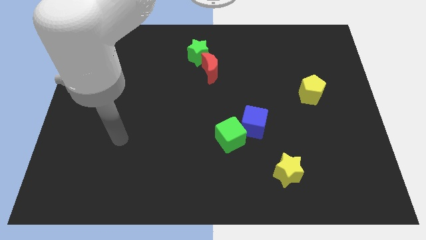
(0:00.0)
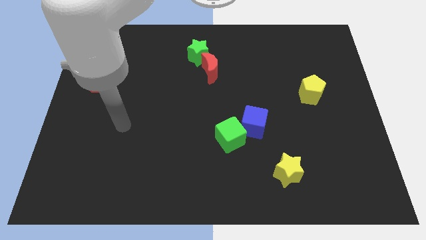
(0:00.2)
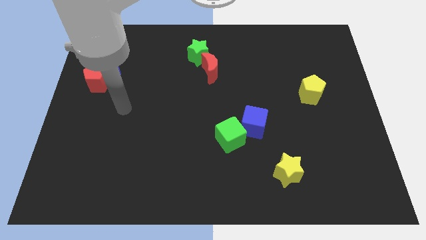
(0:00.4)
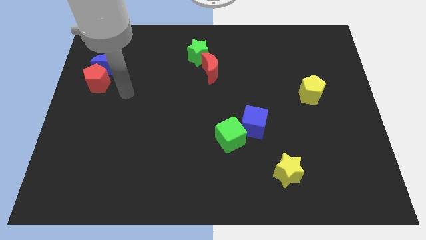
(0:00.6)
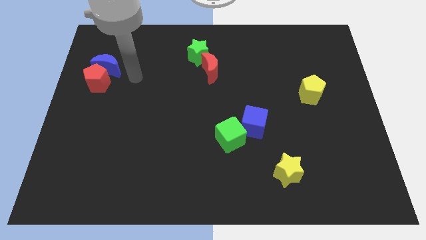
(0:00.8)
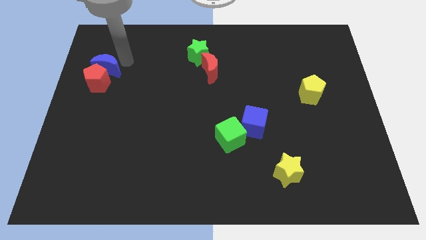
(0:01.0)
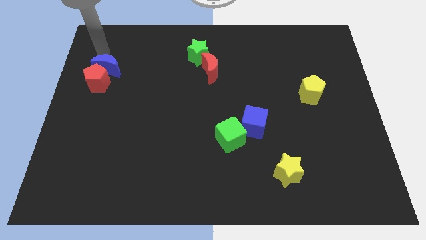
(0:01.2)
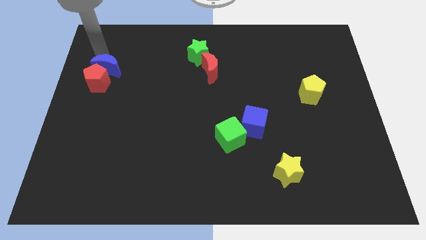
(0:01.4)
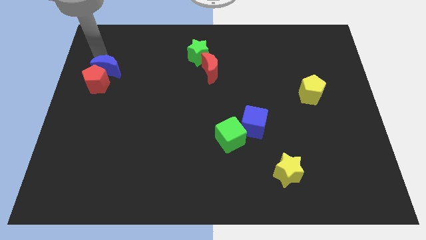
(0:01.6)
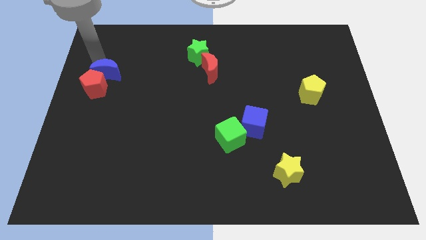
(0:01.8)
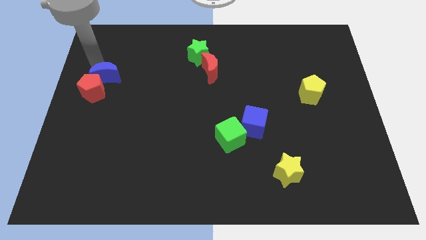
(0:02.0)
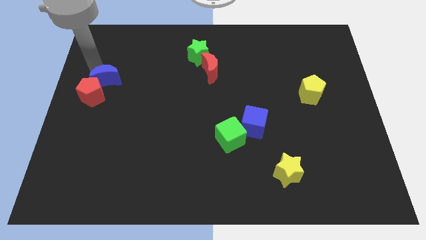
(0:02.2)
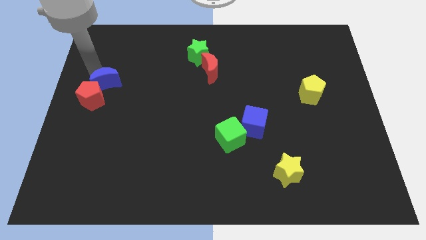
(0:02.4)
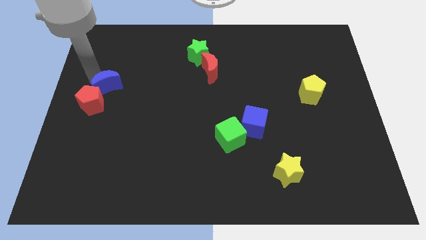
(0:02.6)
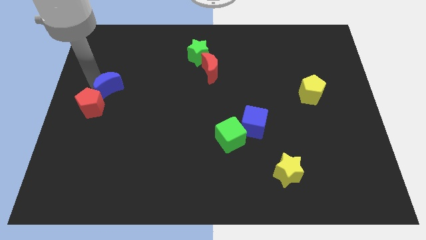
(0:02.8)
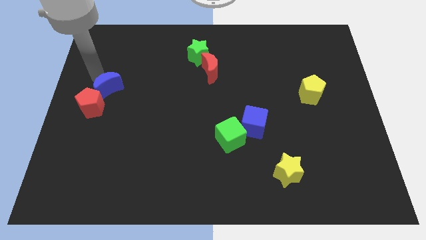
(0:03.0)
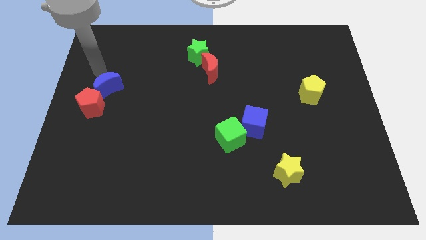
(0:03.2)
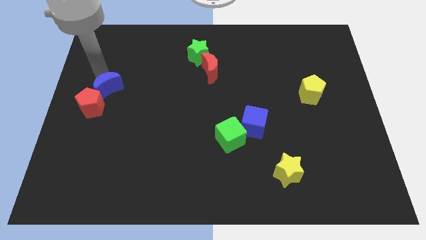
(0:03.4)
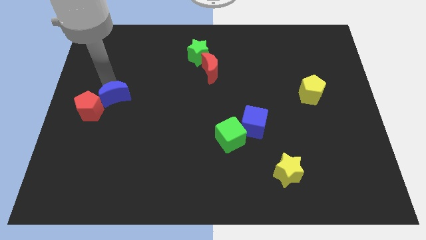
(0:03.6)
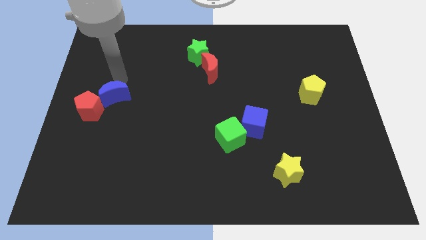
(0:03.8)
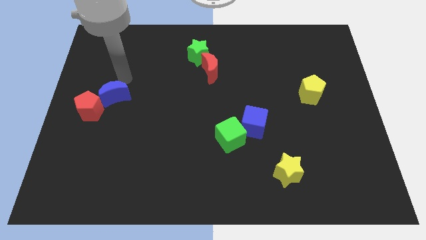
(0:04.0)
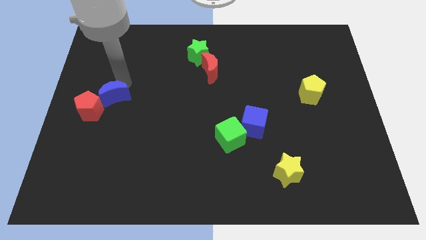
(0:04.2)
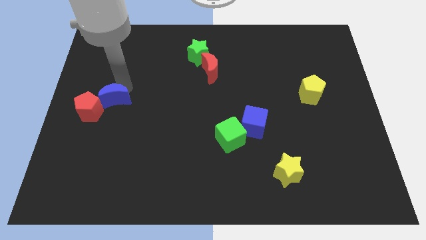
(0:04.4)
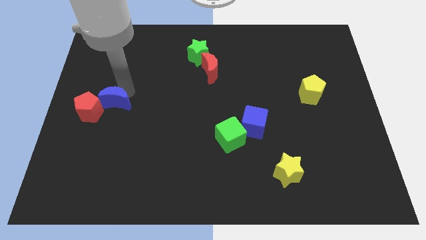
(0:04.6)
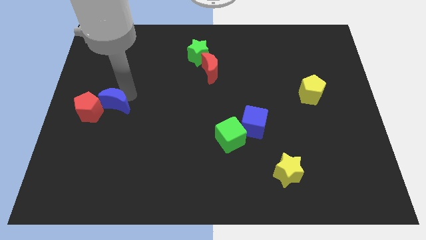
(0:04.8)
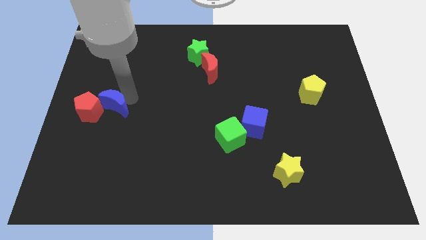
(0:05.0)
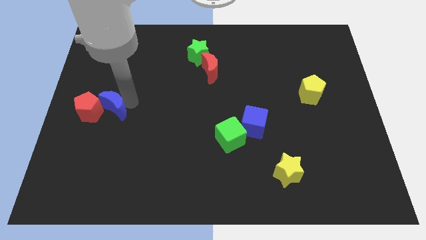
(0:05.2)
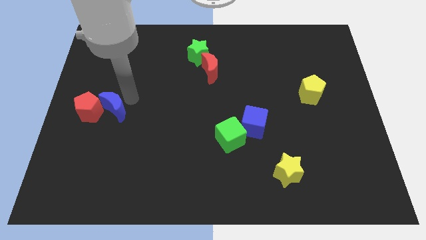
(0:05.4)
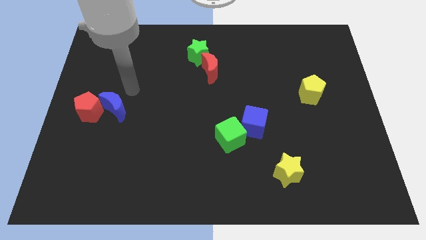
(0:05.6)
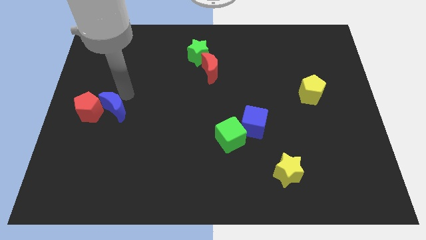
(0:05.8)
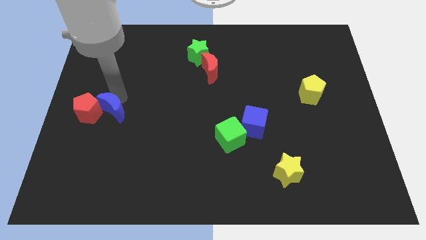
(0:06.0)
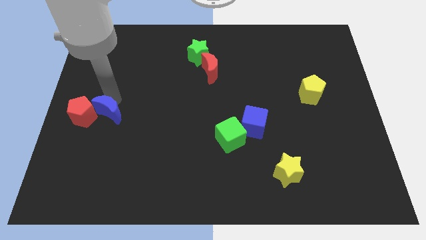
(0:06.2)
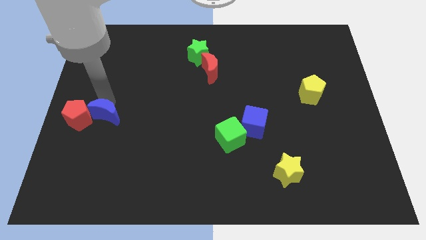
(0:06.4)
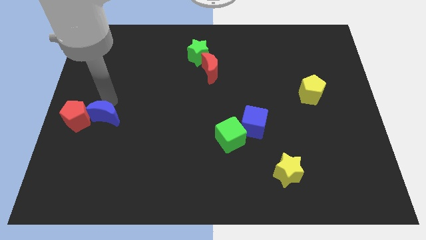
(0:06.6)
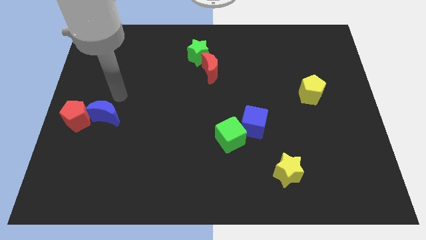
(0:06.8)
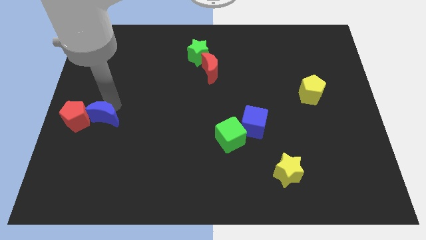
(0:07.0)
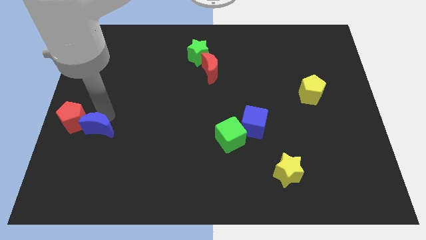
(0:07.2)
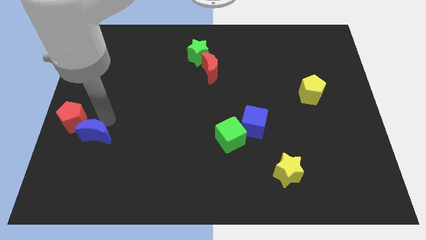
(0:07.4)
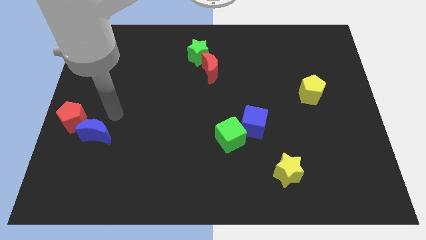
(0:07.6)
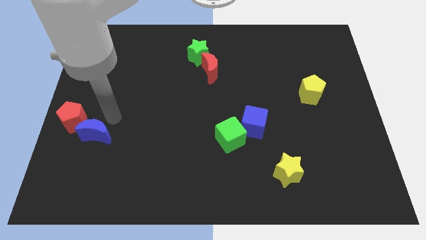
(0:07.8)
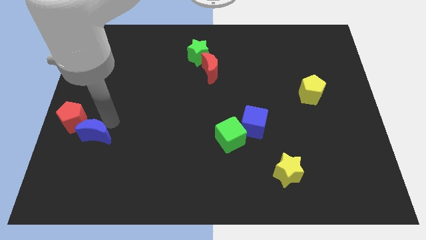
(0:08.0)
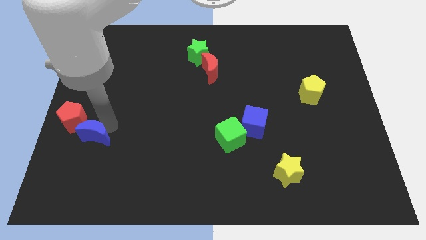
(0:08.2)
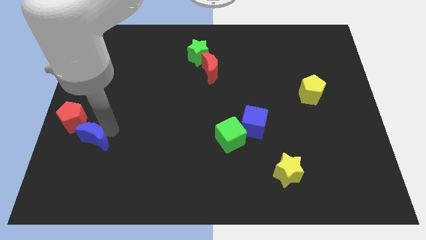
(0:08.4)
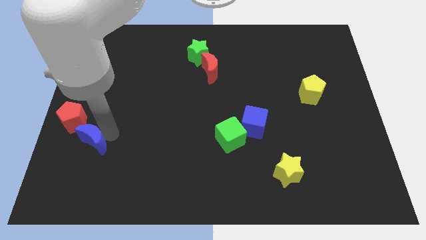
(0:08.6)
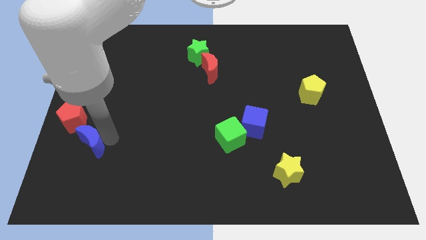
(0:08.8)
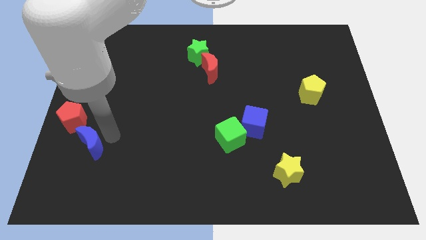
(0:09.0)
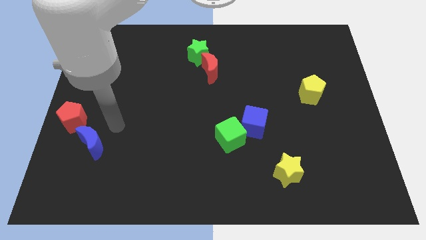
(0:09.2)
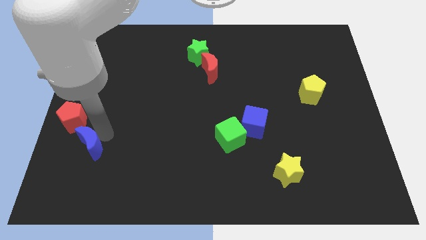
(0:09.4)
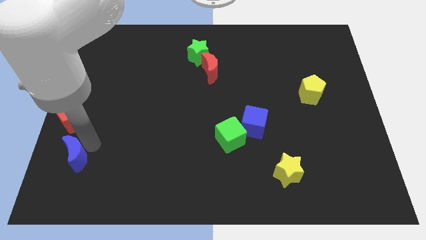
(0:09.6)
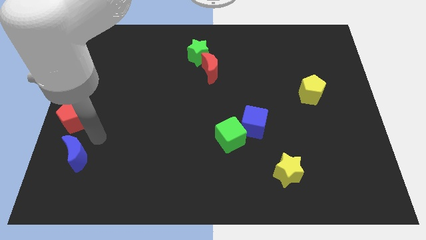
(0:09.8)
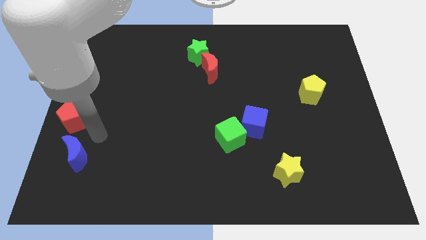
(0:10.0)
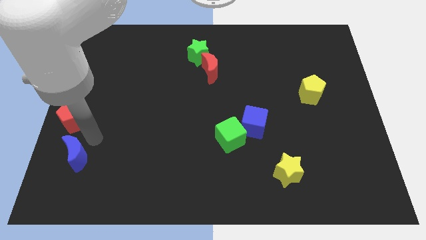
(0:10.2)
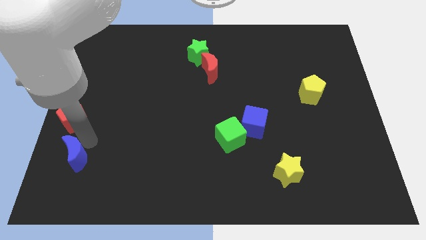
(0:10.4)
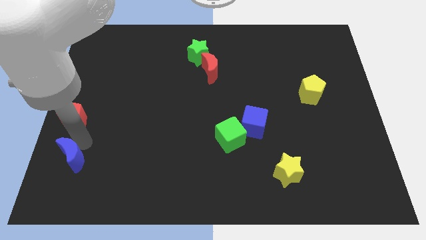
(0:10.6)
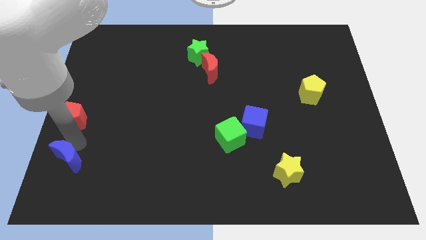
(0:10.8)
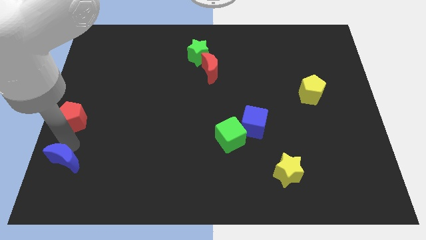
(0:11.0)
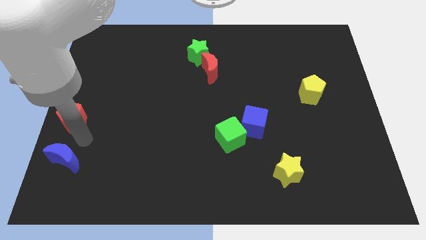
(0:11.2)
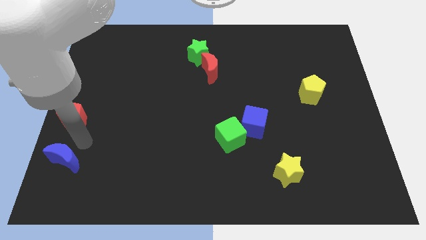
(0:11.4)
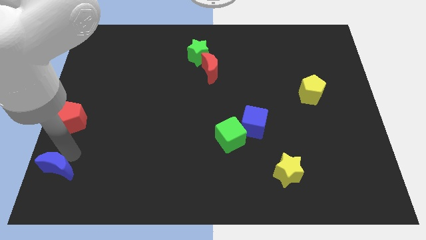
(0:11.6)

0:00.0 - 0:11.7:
slide the blue moon to the bottom left corner
